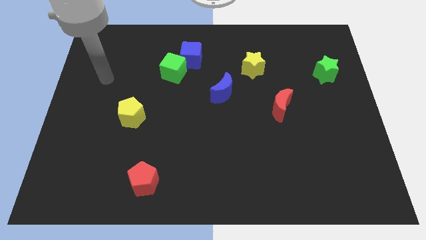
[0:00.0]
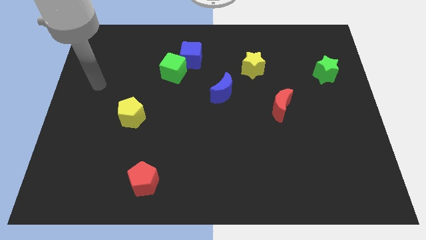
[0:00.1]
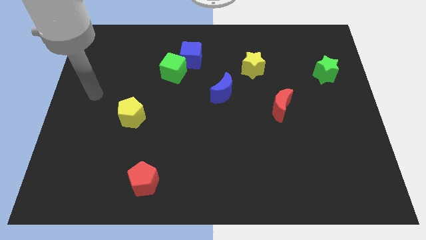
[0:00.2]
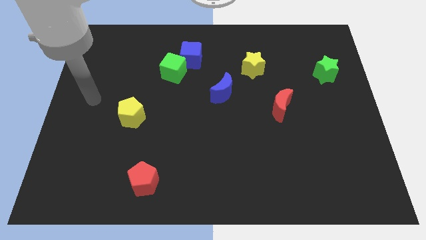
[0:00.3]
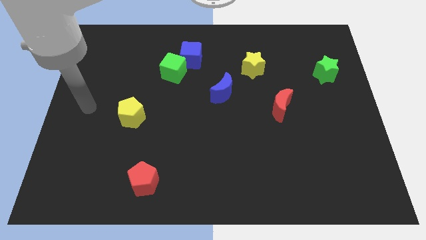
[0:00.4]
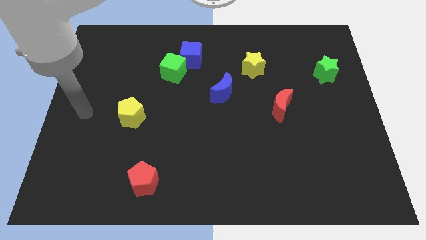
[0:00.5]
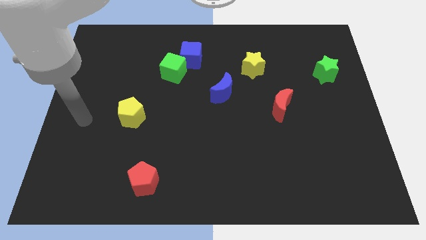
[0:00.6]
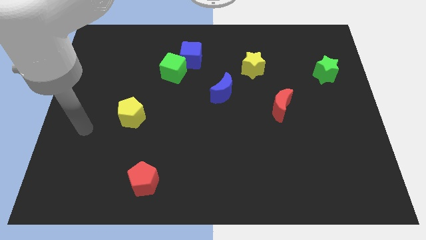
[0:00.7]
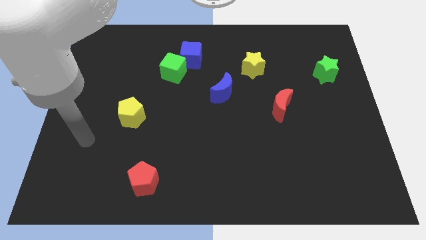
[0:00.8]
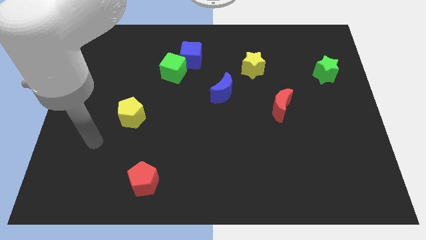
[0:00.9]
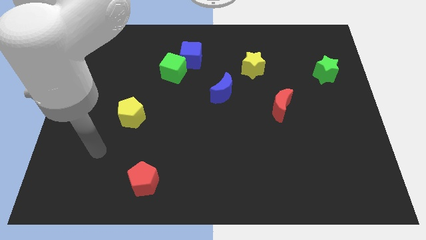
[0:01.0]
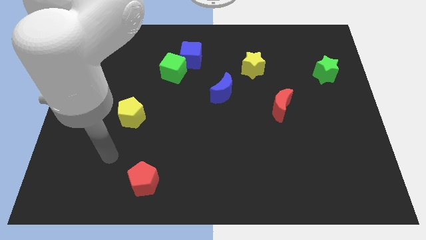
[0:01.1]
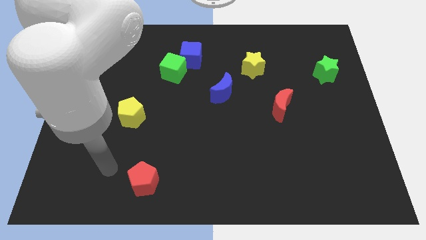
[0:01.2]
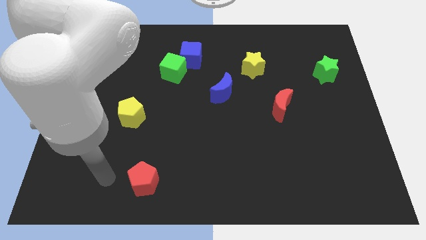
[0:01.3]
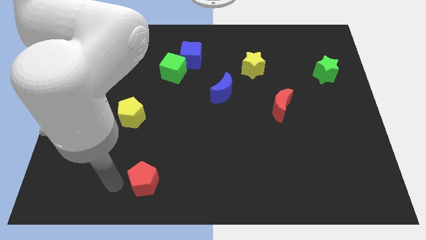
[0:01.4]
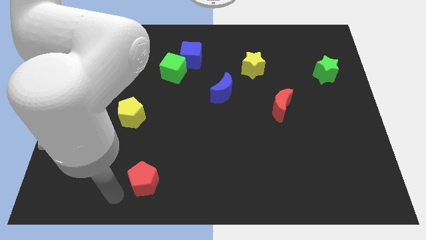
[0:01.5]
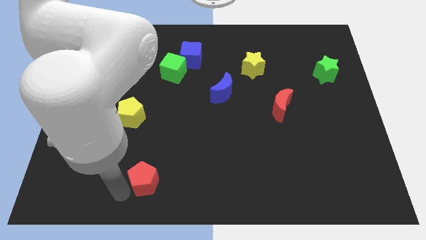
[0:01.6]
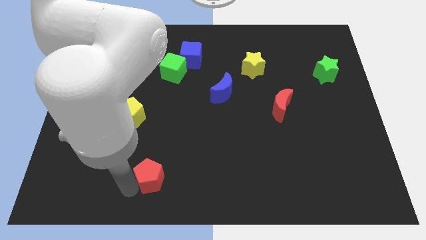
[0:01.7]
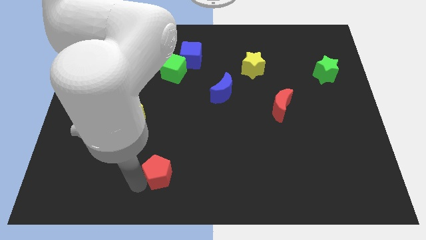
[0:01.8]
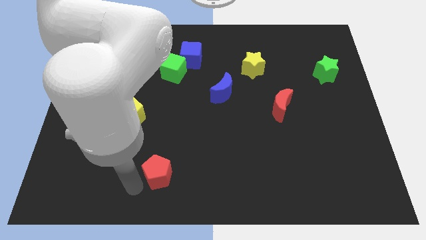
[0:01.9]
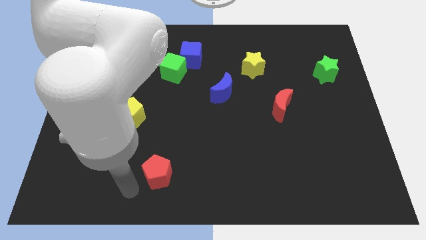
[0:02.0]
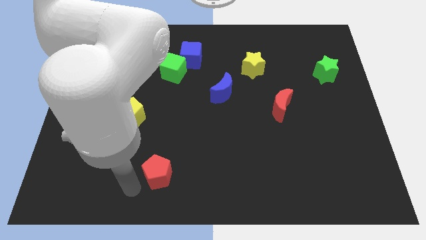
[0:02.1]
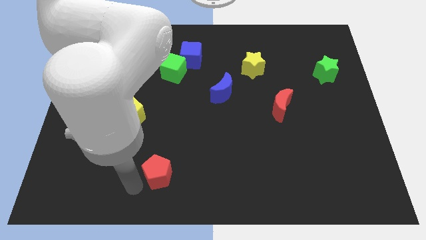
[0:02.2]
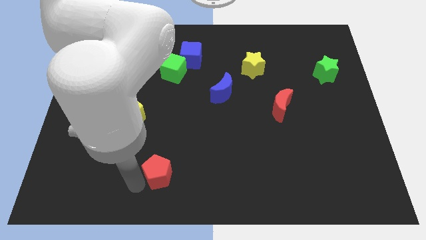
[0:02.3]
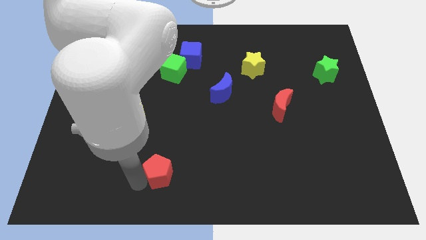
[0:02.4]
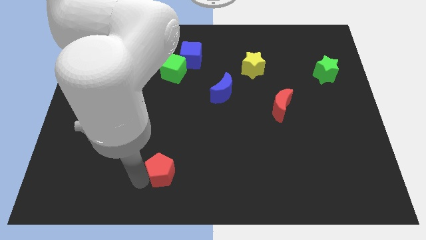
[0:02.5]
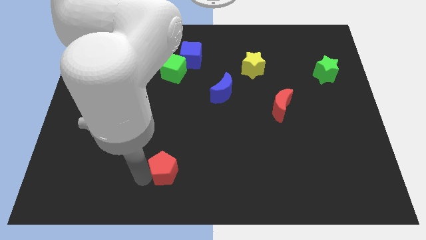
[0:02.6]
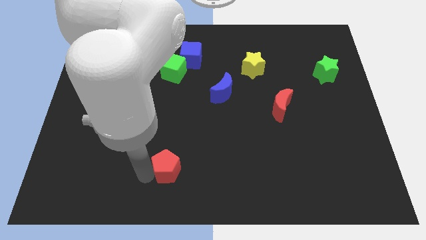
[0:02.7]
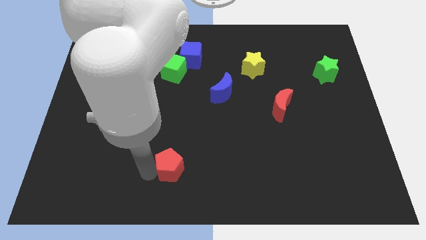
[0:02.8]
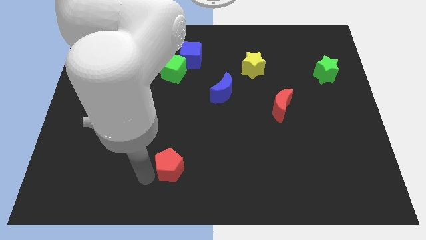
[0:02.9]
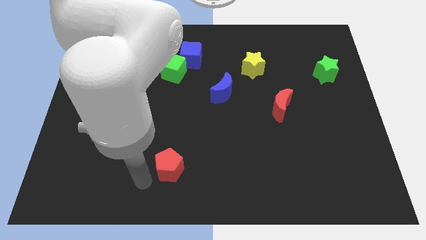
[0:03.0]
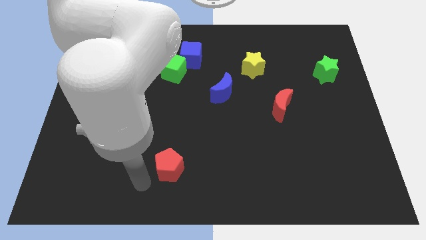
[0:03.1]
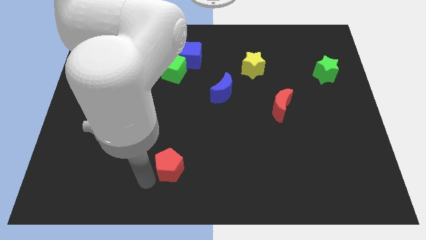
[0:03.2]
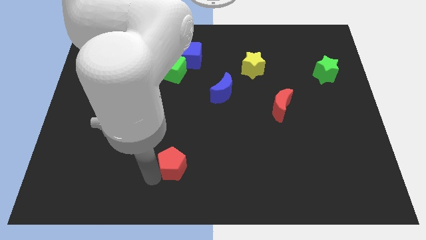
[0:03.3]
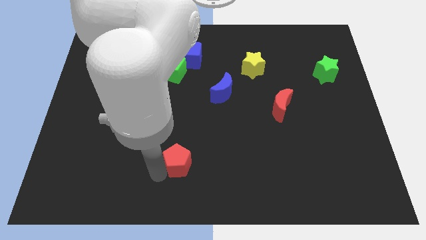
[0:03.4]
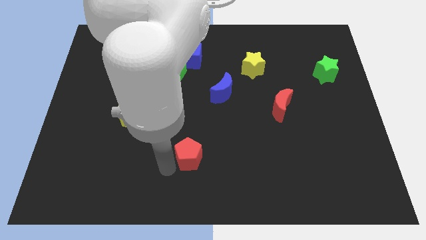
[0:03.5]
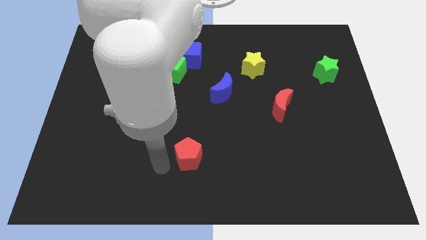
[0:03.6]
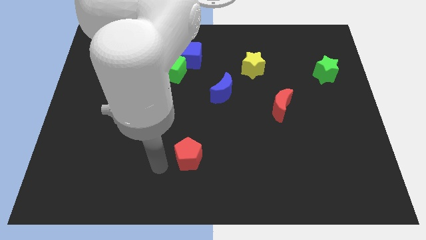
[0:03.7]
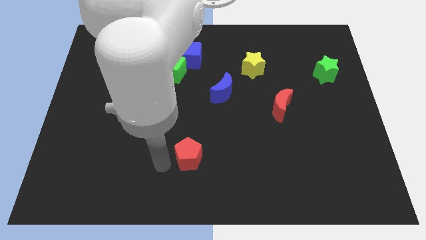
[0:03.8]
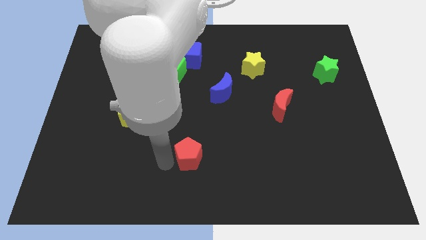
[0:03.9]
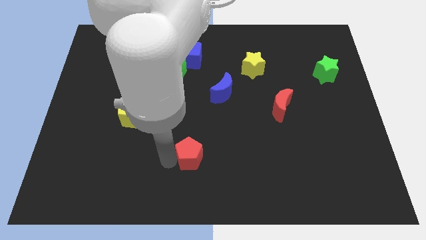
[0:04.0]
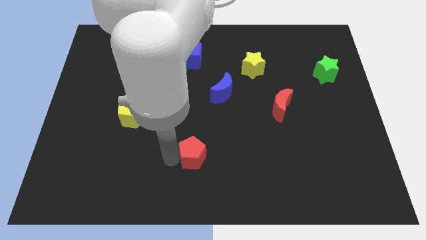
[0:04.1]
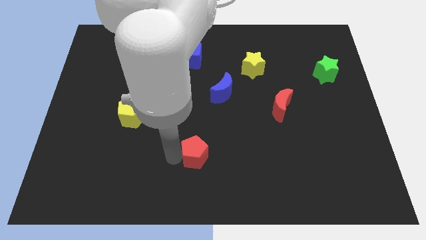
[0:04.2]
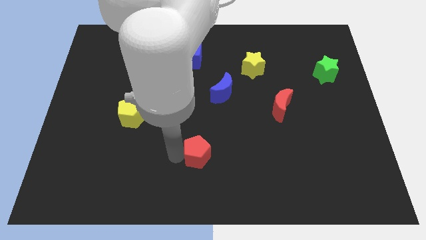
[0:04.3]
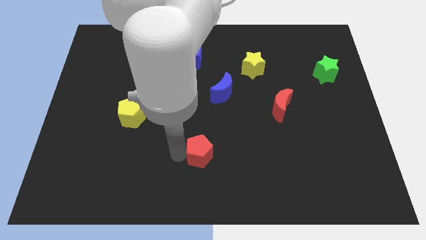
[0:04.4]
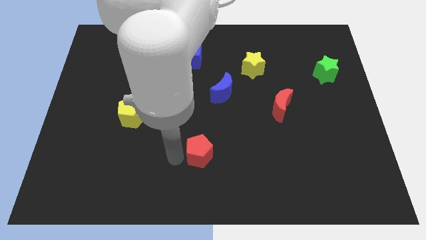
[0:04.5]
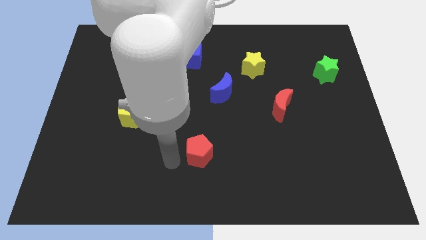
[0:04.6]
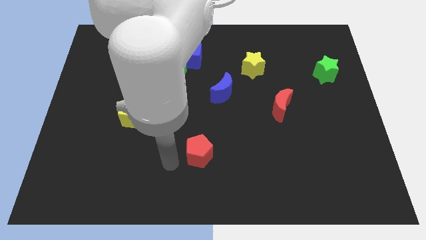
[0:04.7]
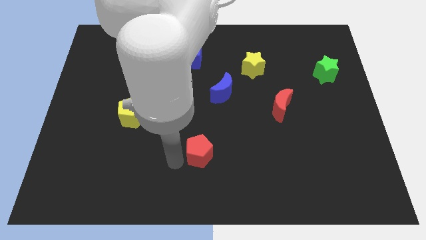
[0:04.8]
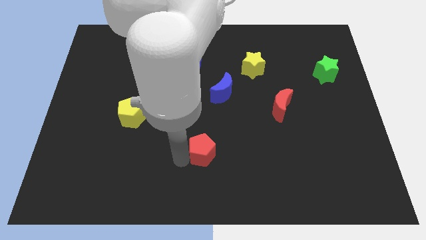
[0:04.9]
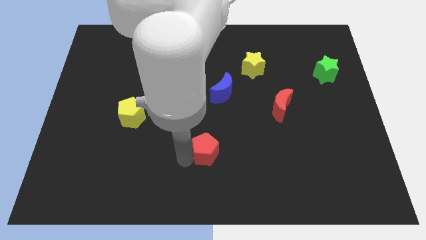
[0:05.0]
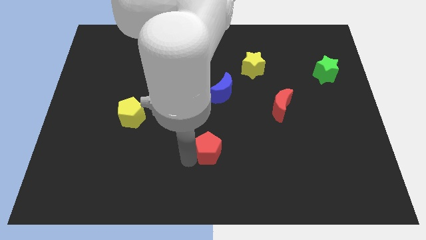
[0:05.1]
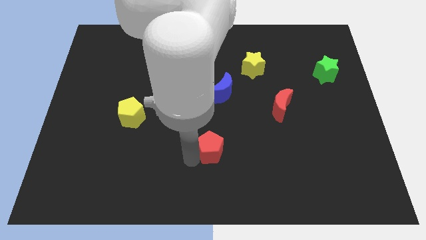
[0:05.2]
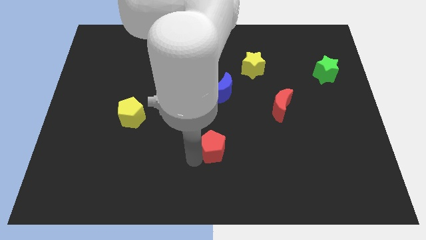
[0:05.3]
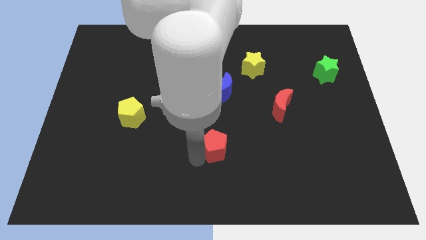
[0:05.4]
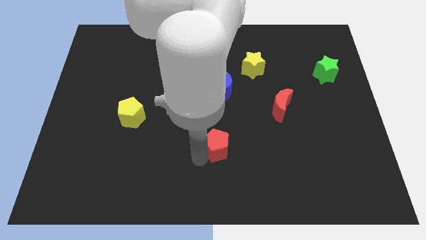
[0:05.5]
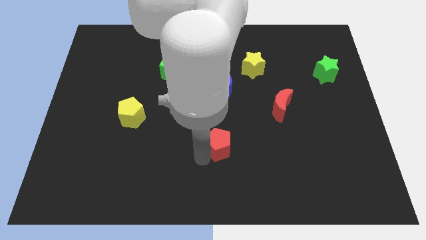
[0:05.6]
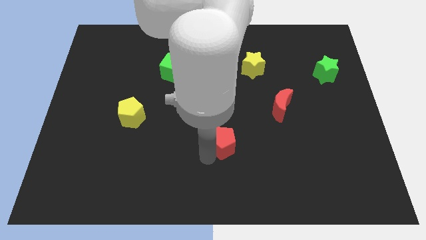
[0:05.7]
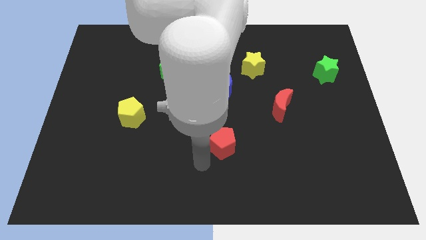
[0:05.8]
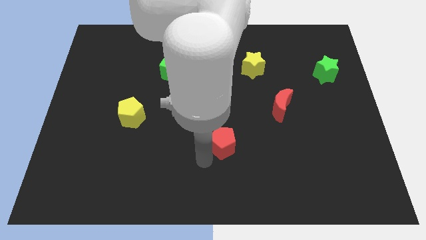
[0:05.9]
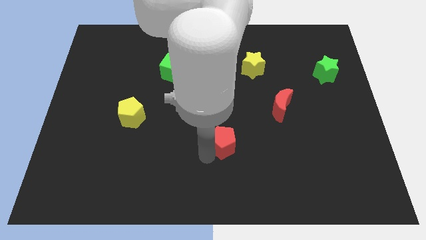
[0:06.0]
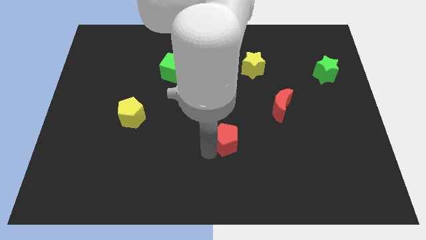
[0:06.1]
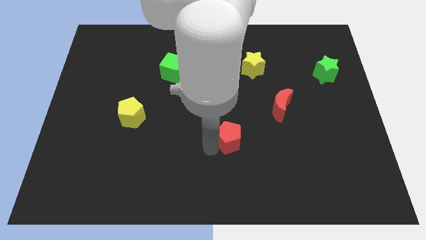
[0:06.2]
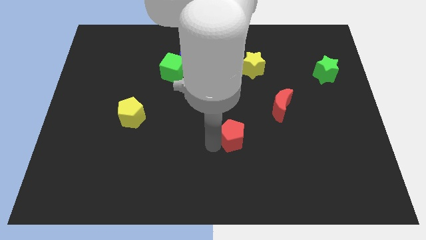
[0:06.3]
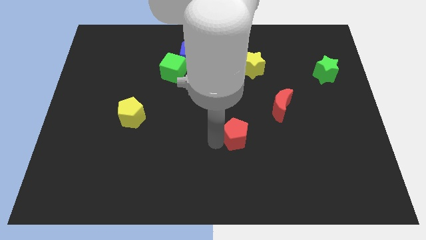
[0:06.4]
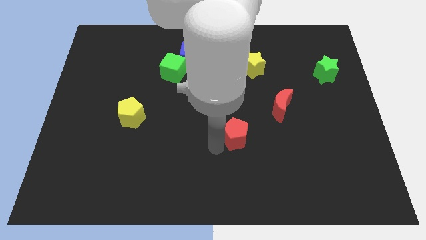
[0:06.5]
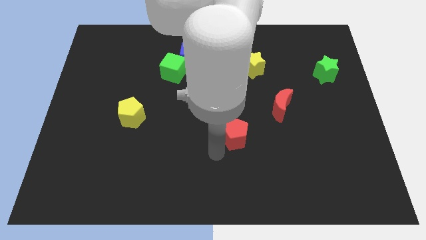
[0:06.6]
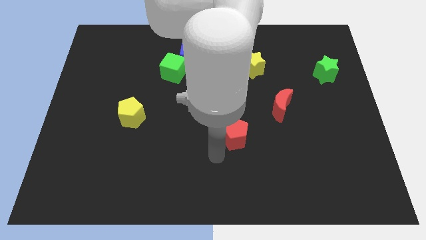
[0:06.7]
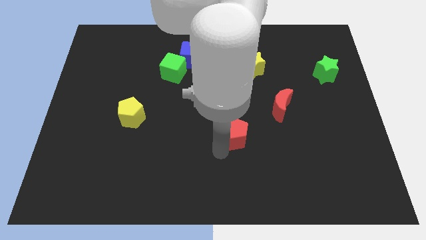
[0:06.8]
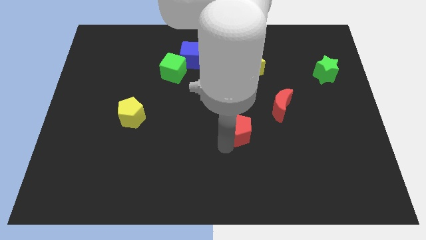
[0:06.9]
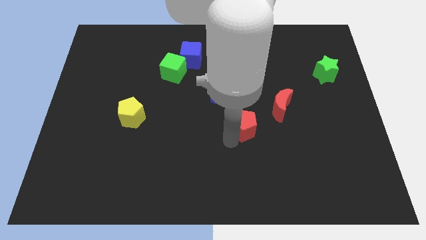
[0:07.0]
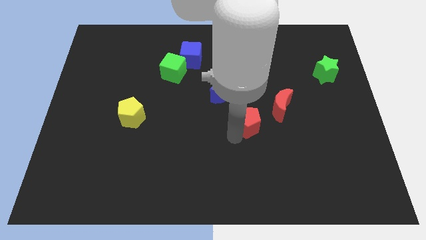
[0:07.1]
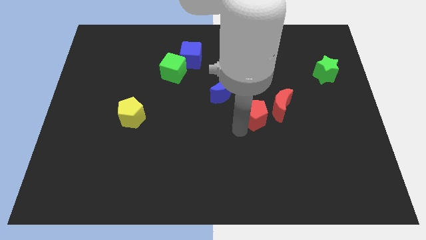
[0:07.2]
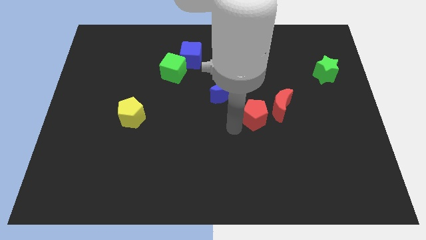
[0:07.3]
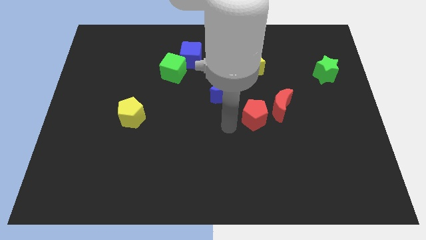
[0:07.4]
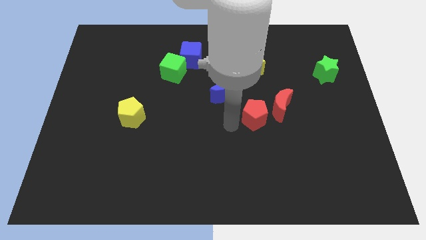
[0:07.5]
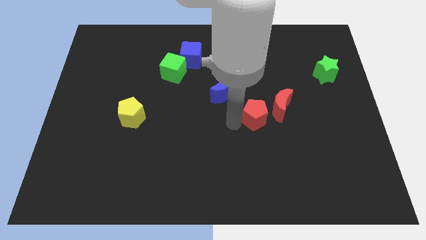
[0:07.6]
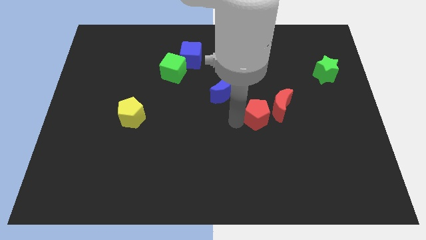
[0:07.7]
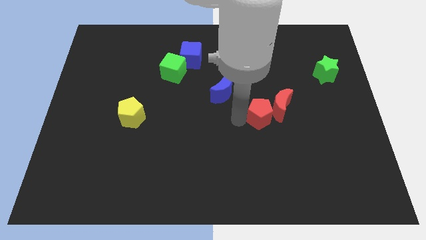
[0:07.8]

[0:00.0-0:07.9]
slide the red pentagon next to the red moon
